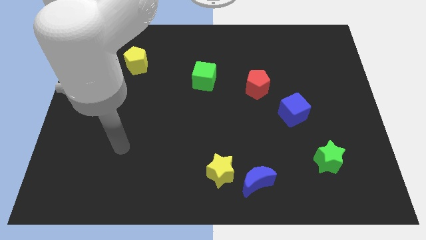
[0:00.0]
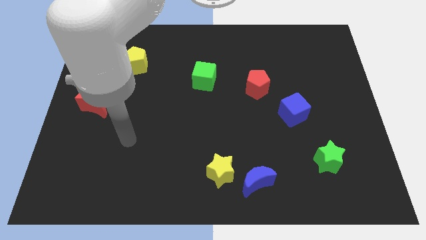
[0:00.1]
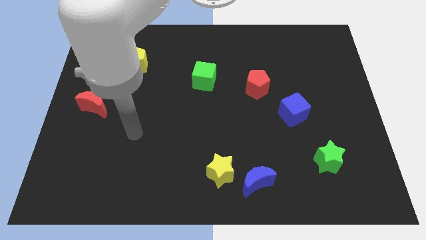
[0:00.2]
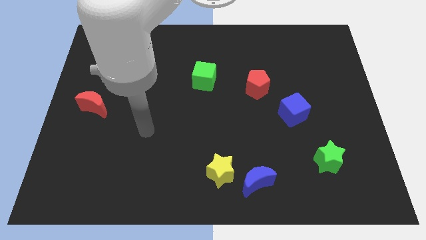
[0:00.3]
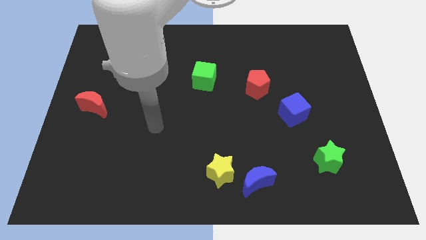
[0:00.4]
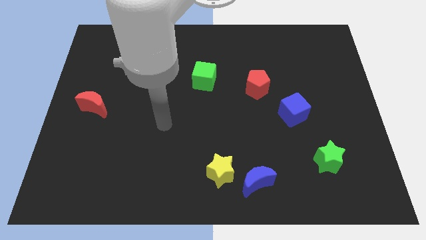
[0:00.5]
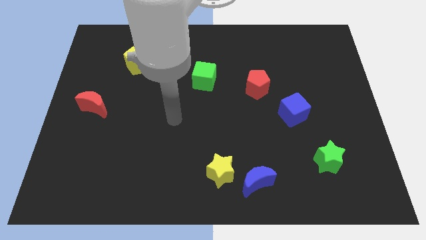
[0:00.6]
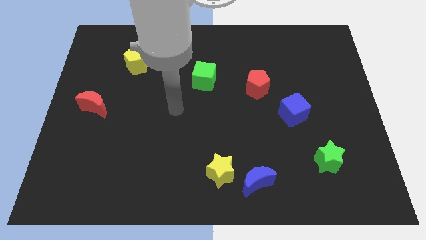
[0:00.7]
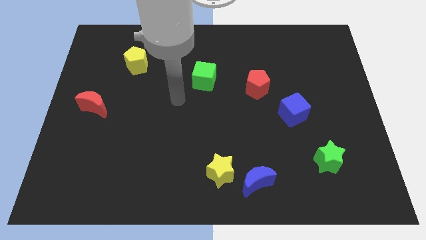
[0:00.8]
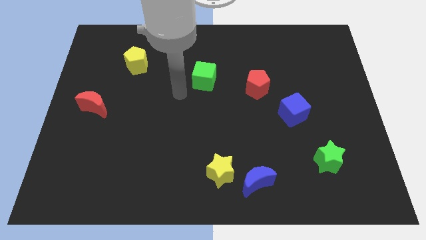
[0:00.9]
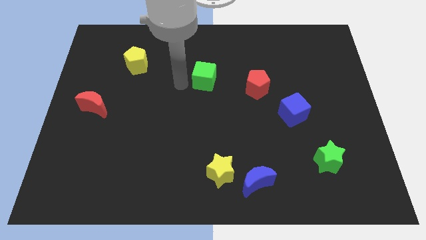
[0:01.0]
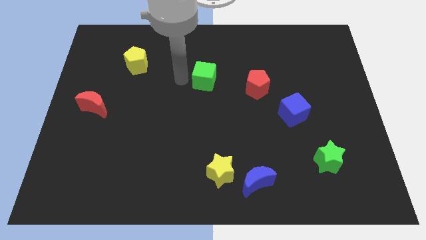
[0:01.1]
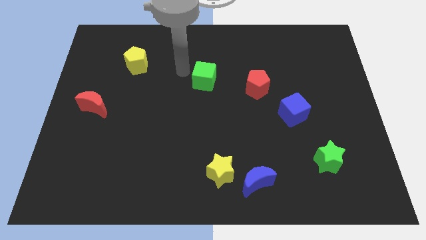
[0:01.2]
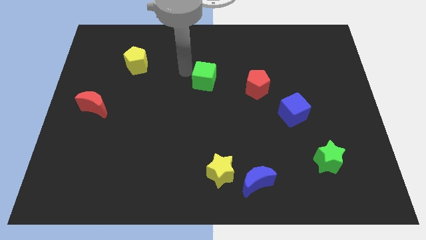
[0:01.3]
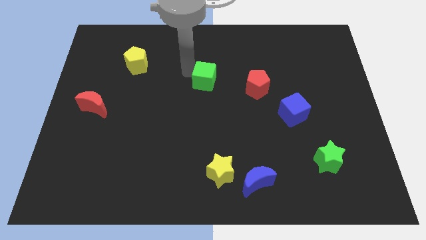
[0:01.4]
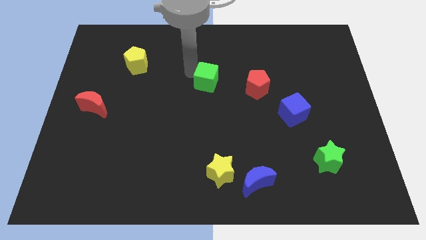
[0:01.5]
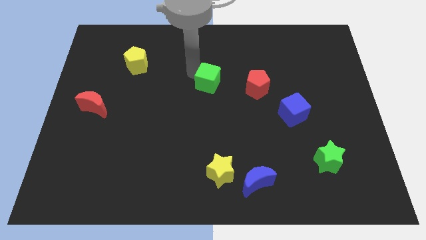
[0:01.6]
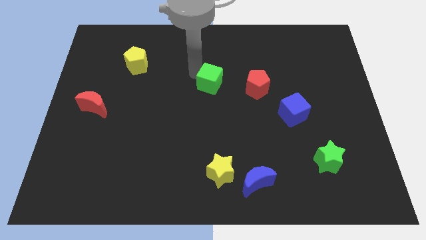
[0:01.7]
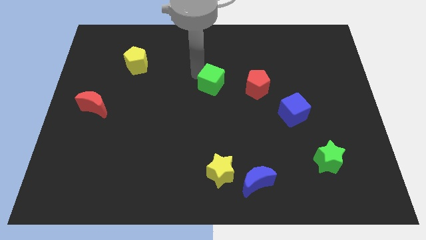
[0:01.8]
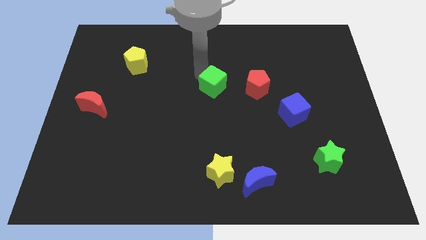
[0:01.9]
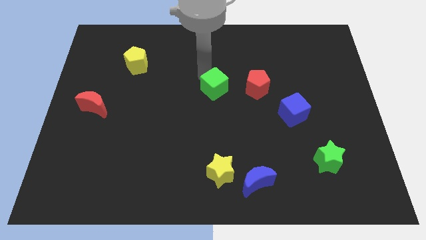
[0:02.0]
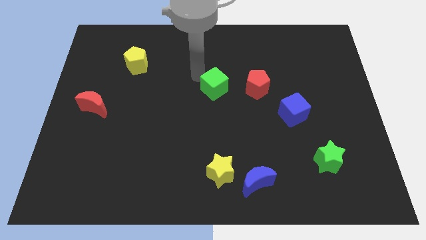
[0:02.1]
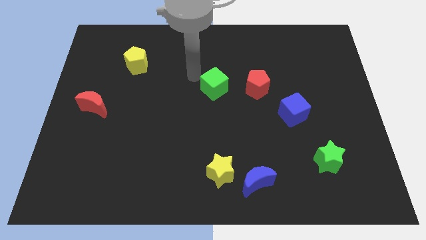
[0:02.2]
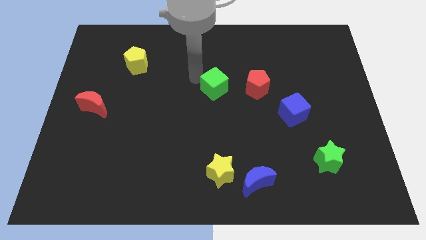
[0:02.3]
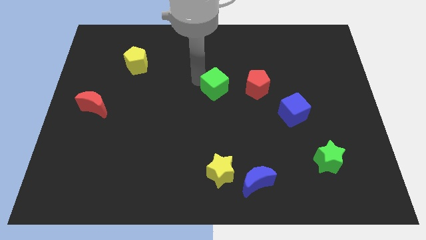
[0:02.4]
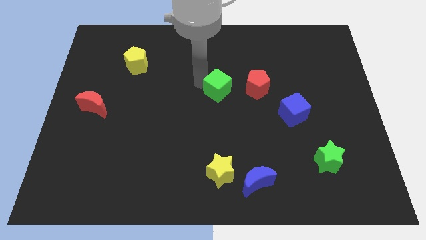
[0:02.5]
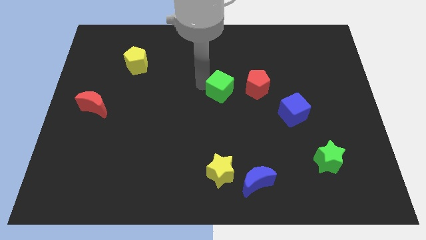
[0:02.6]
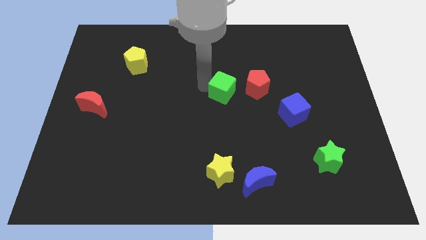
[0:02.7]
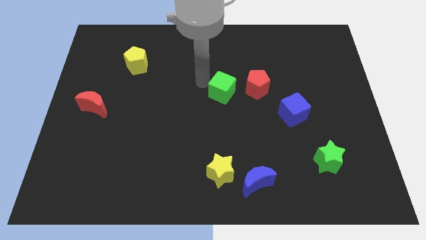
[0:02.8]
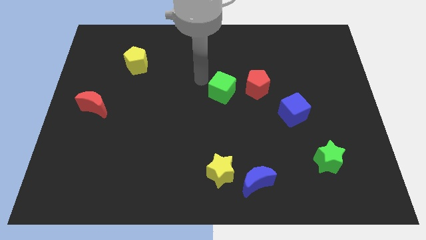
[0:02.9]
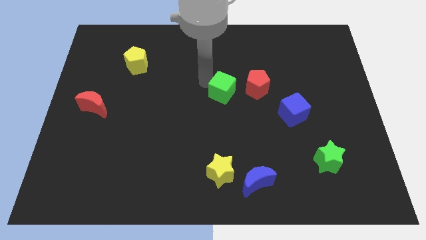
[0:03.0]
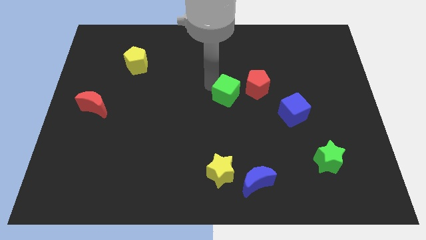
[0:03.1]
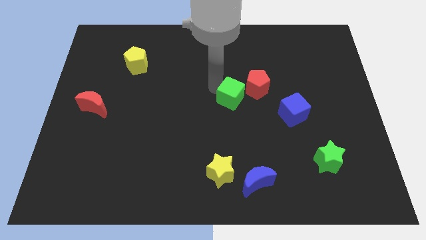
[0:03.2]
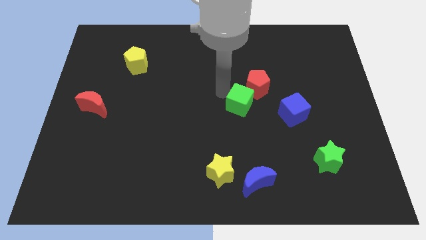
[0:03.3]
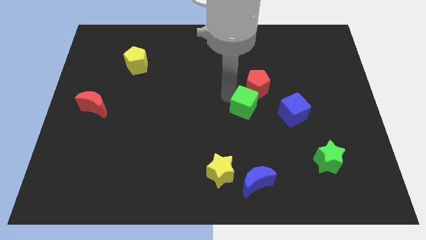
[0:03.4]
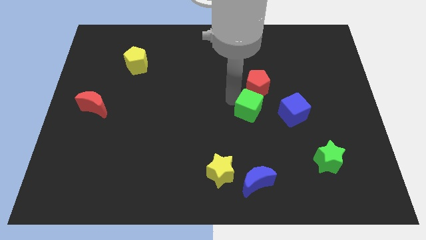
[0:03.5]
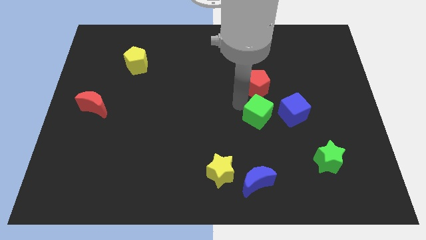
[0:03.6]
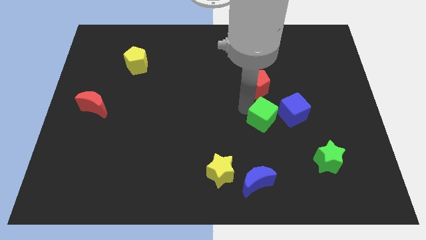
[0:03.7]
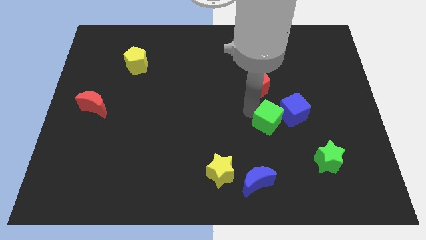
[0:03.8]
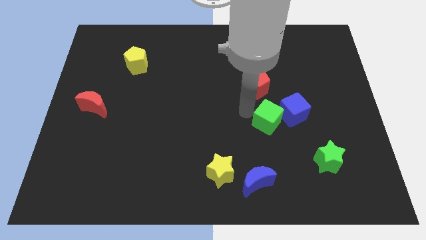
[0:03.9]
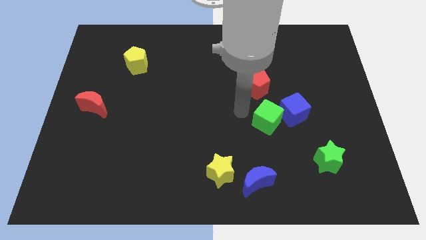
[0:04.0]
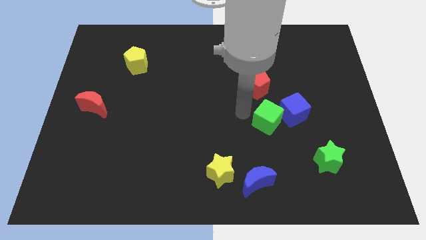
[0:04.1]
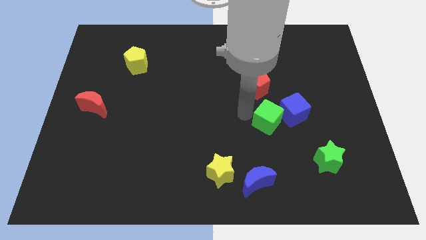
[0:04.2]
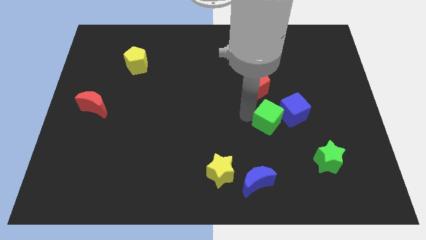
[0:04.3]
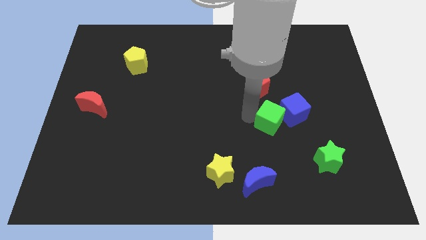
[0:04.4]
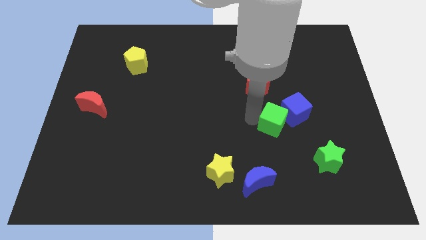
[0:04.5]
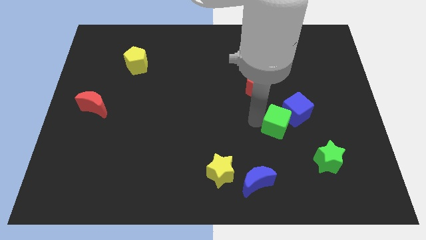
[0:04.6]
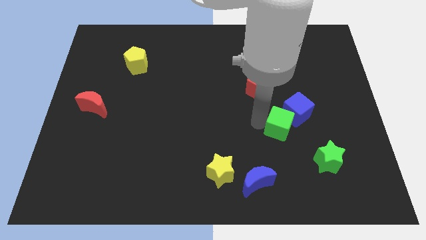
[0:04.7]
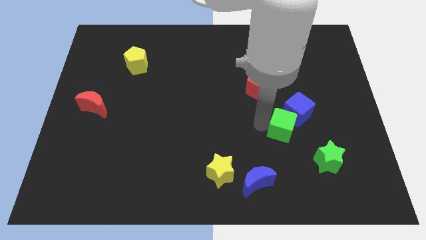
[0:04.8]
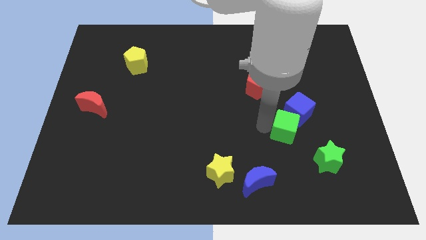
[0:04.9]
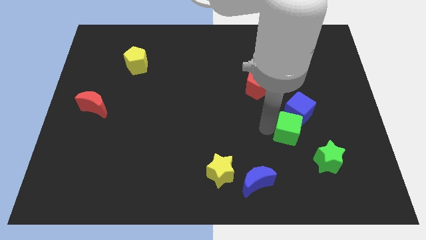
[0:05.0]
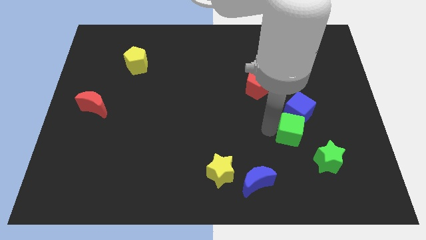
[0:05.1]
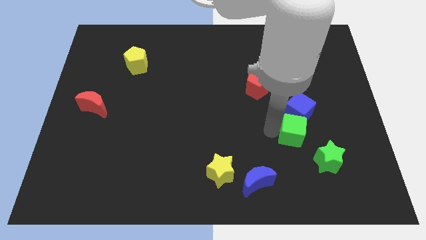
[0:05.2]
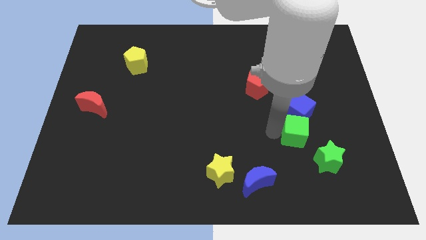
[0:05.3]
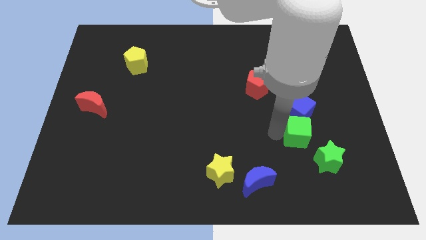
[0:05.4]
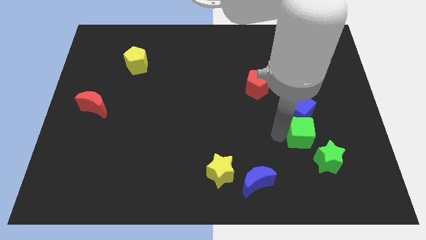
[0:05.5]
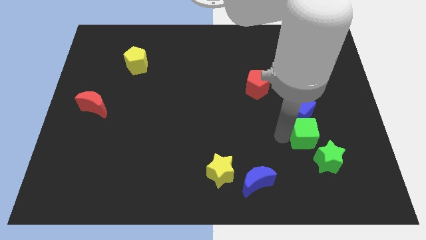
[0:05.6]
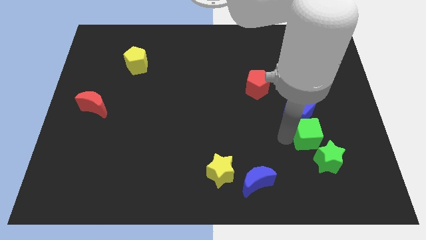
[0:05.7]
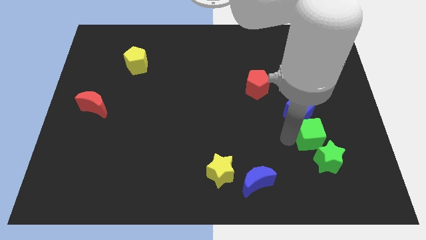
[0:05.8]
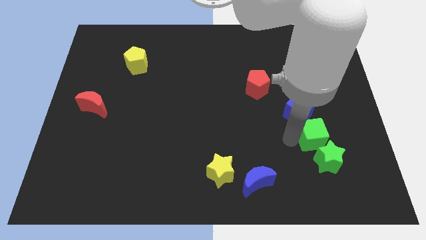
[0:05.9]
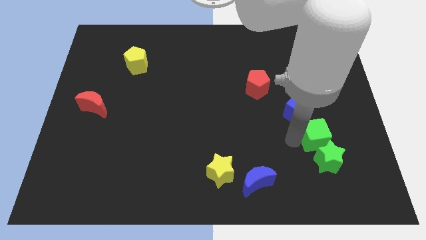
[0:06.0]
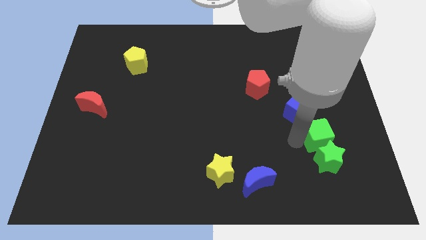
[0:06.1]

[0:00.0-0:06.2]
slide the green cube diagonally up and to the right of the green star
